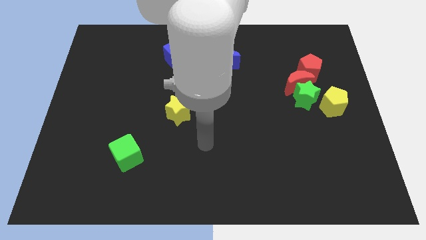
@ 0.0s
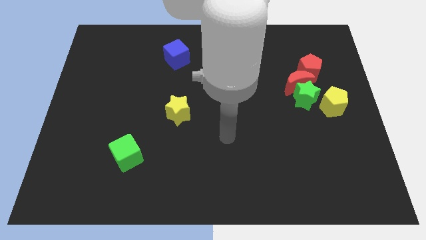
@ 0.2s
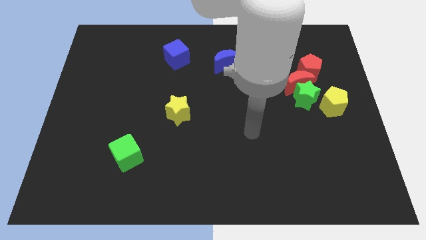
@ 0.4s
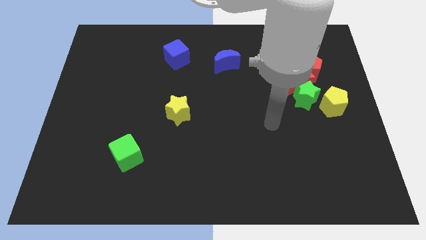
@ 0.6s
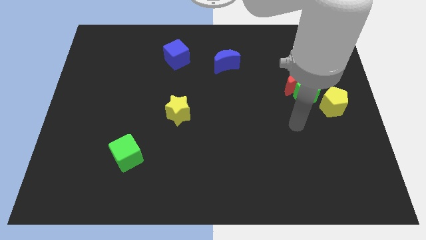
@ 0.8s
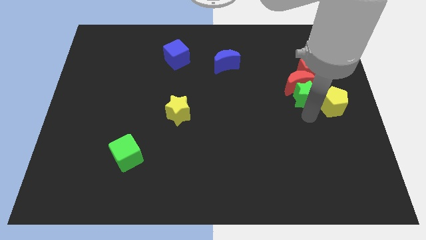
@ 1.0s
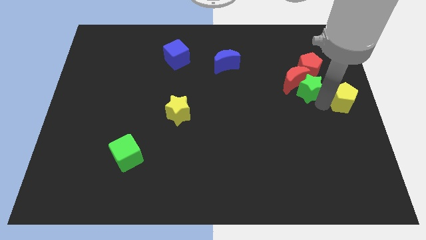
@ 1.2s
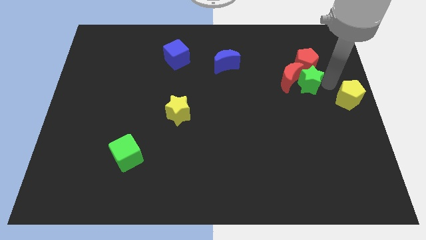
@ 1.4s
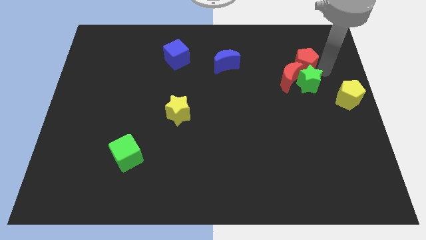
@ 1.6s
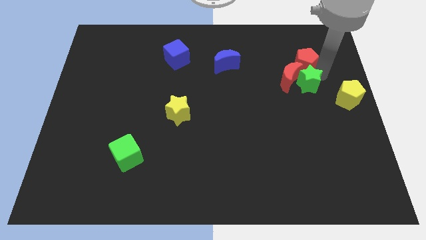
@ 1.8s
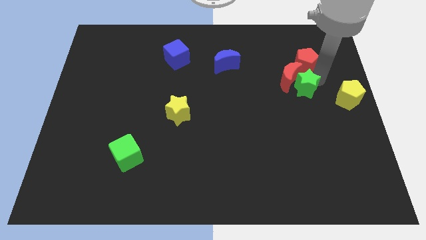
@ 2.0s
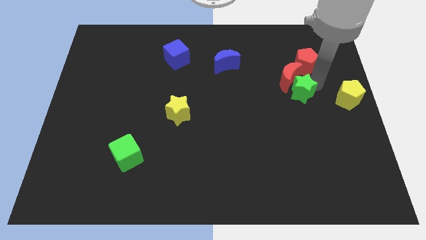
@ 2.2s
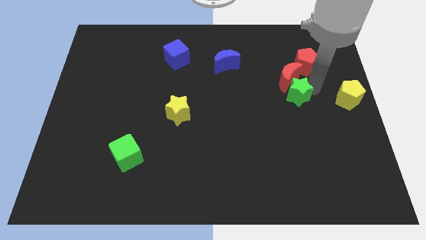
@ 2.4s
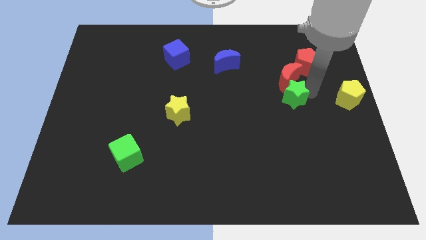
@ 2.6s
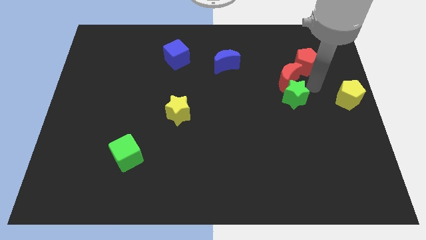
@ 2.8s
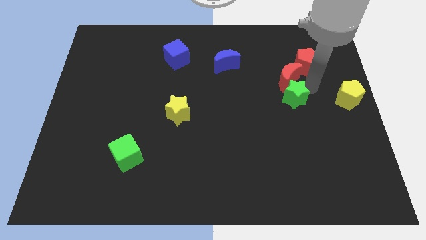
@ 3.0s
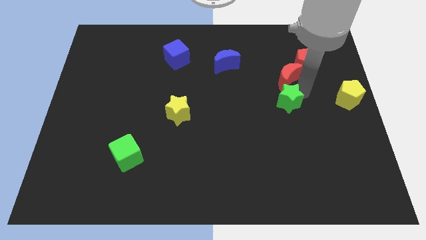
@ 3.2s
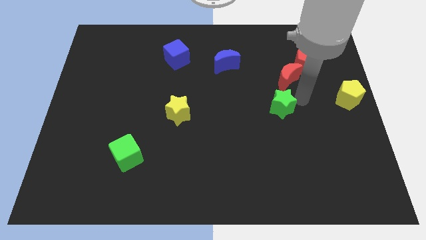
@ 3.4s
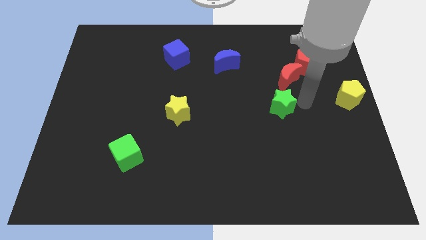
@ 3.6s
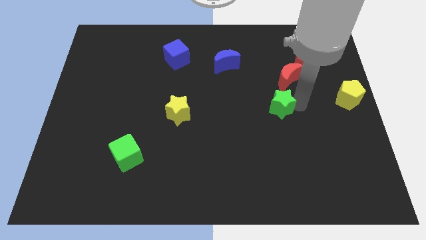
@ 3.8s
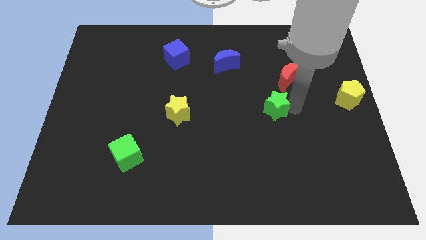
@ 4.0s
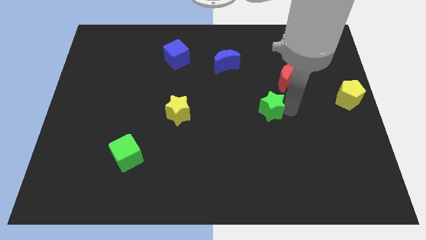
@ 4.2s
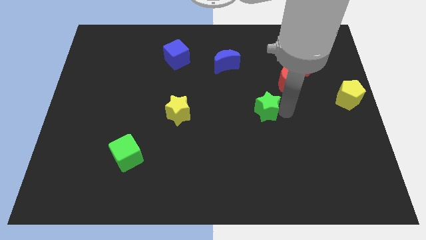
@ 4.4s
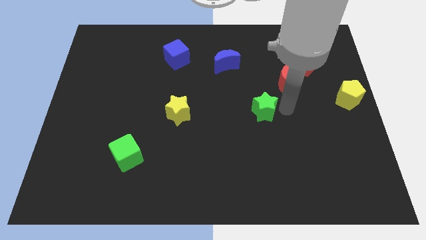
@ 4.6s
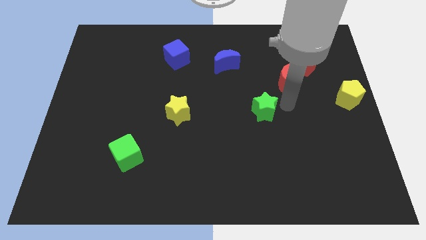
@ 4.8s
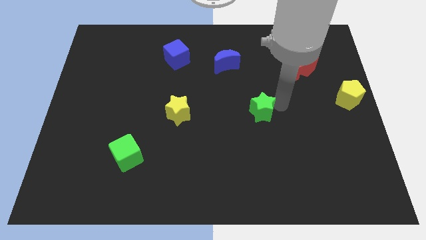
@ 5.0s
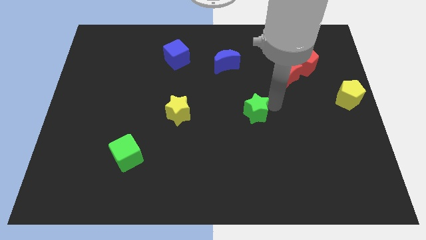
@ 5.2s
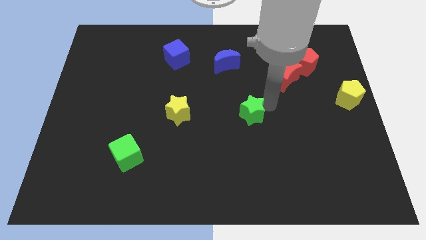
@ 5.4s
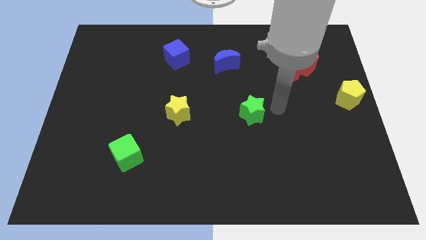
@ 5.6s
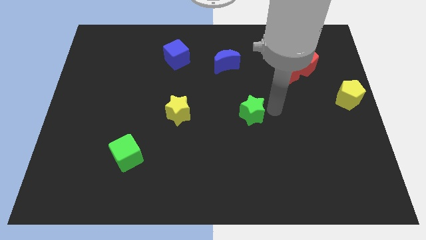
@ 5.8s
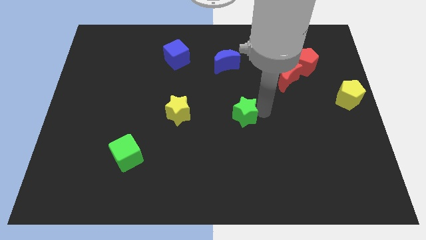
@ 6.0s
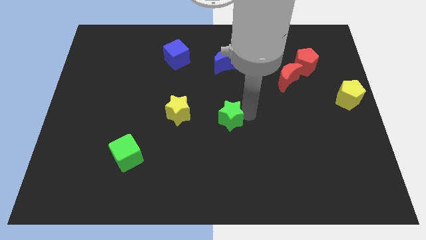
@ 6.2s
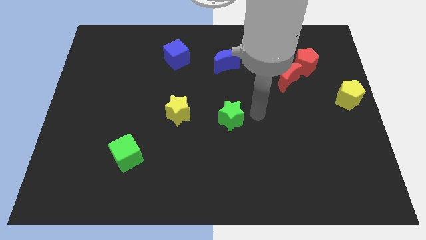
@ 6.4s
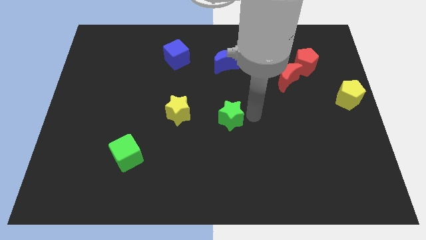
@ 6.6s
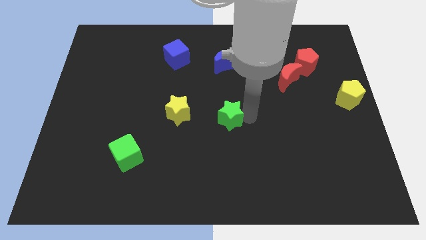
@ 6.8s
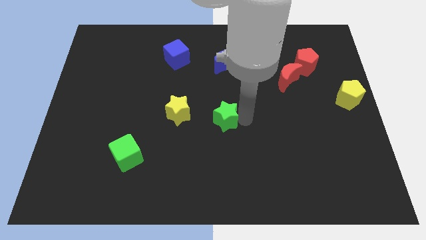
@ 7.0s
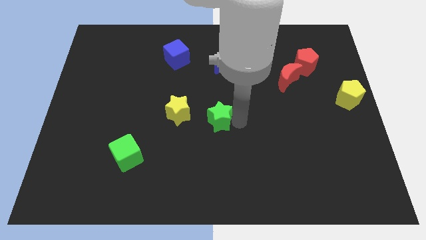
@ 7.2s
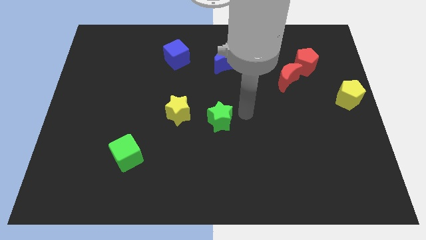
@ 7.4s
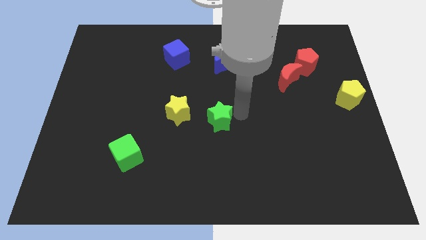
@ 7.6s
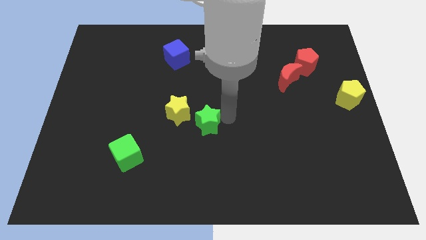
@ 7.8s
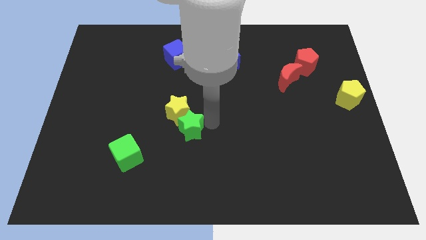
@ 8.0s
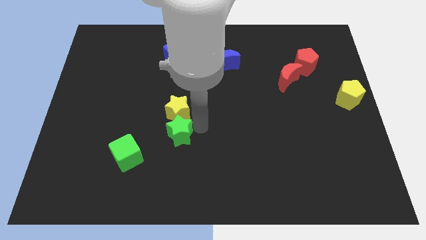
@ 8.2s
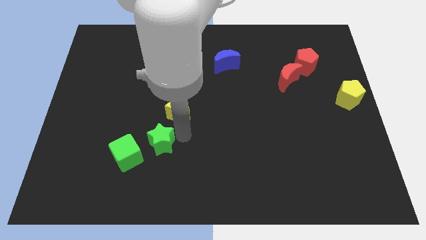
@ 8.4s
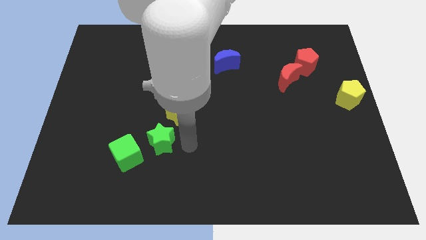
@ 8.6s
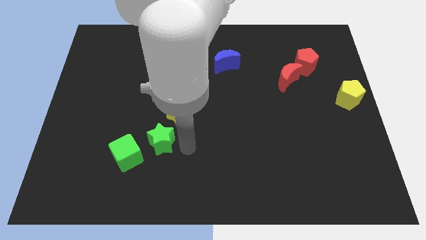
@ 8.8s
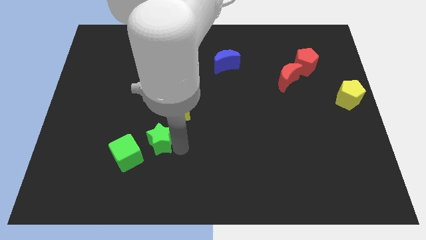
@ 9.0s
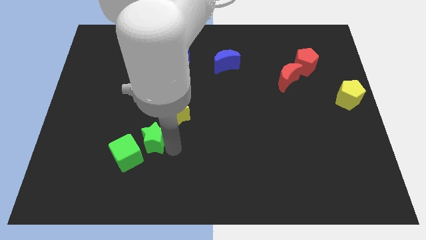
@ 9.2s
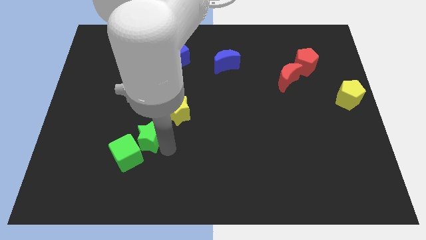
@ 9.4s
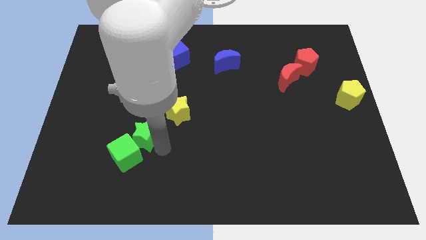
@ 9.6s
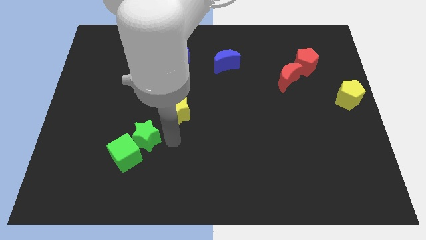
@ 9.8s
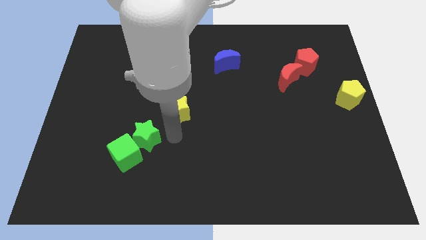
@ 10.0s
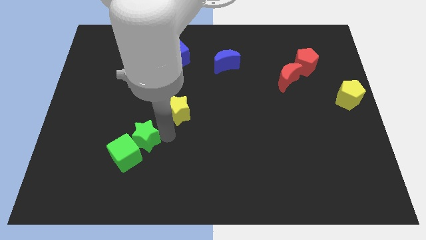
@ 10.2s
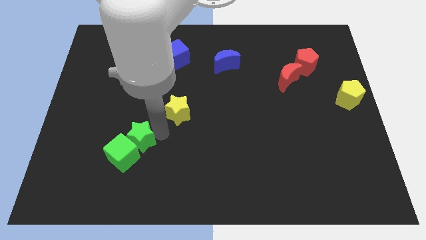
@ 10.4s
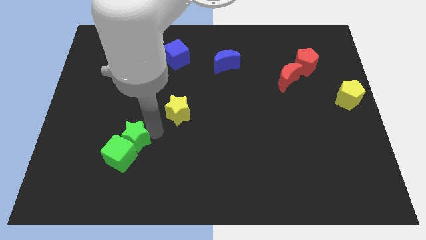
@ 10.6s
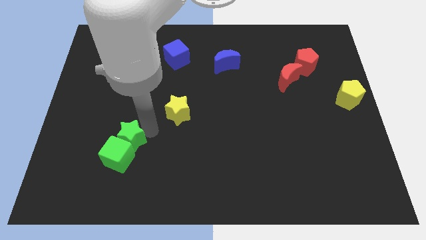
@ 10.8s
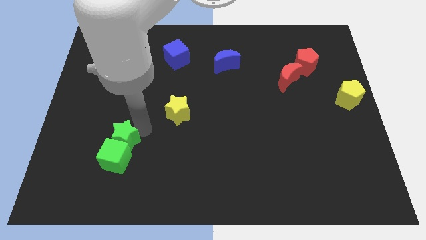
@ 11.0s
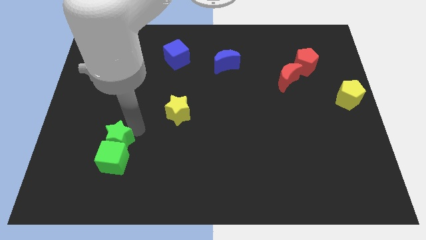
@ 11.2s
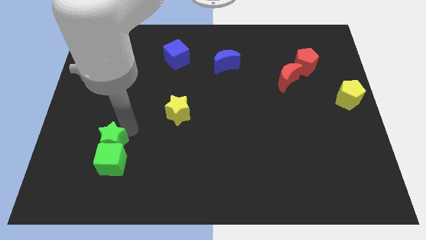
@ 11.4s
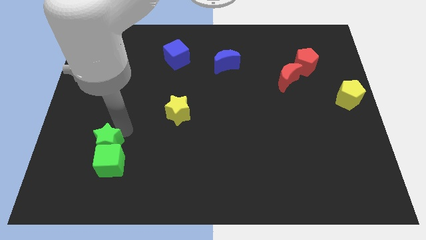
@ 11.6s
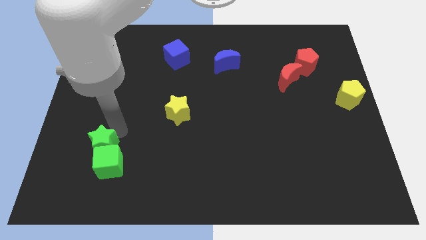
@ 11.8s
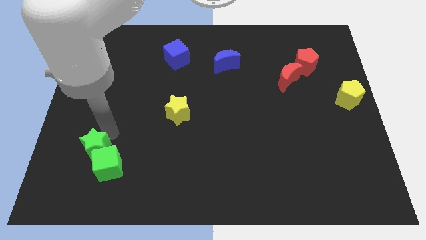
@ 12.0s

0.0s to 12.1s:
push the green star just left of the green cube

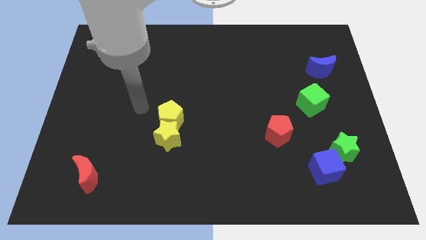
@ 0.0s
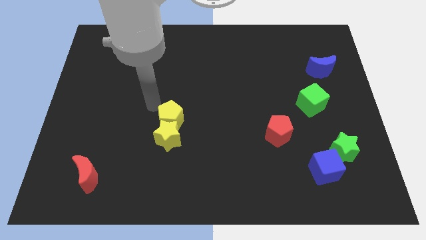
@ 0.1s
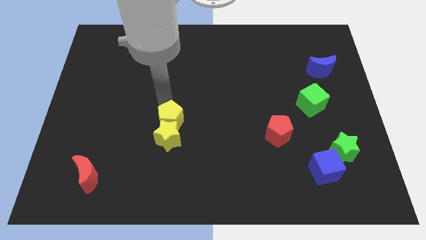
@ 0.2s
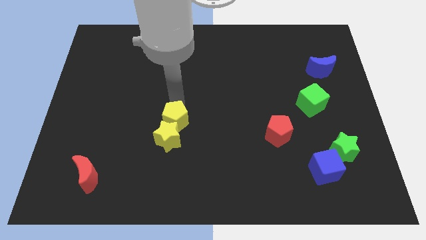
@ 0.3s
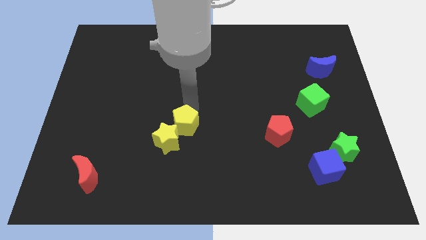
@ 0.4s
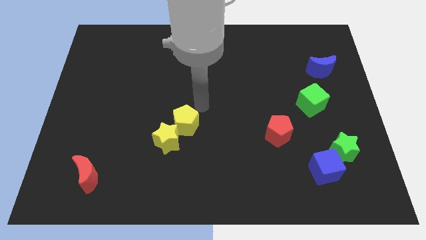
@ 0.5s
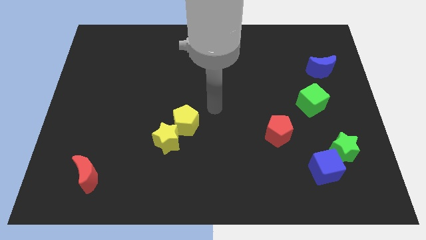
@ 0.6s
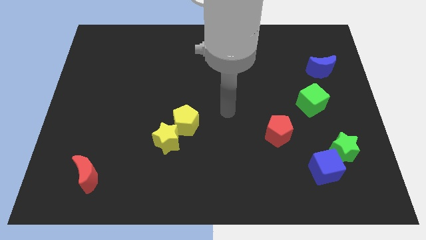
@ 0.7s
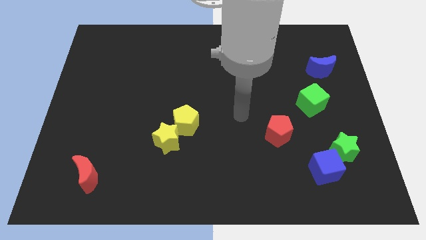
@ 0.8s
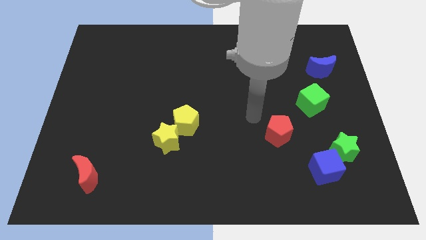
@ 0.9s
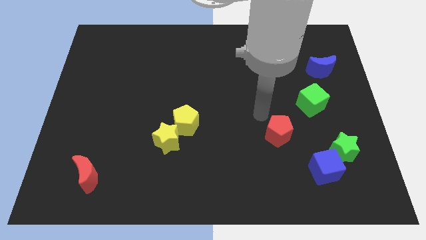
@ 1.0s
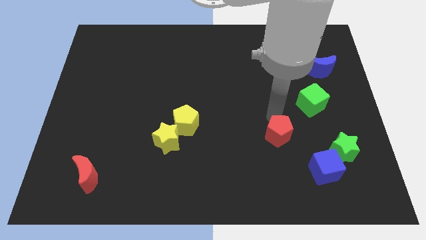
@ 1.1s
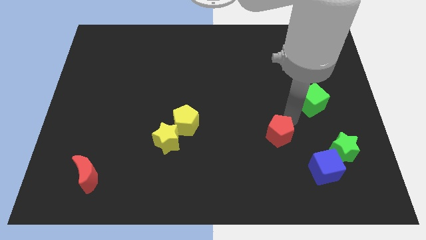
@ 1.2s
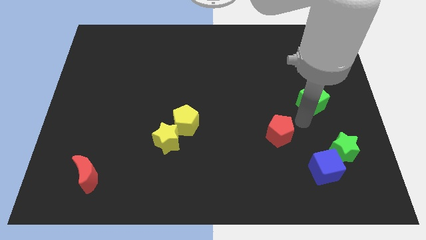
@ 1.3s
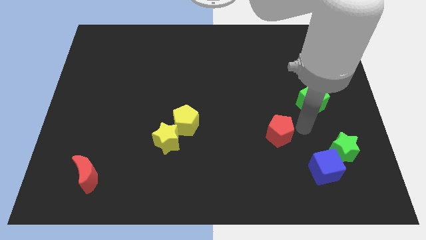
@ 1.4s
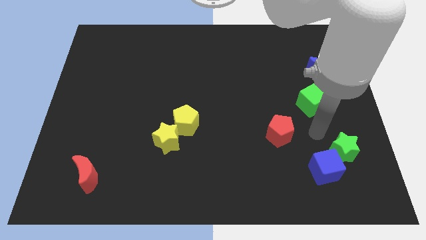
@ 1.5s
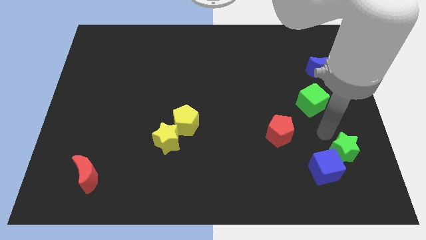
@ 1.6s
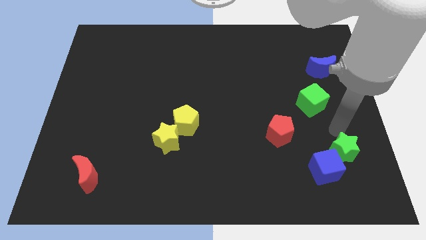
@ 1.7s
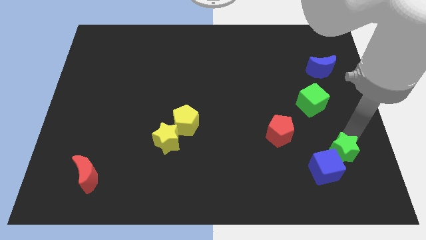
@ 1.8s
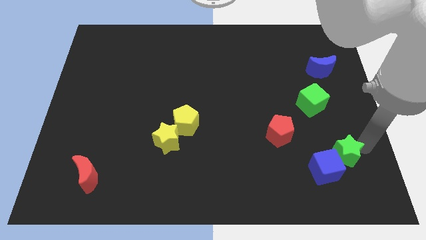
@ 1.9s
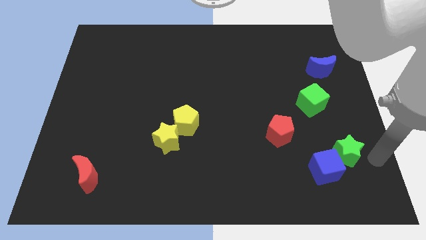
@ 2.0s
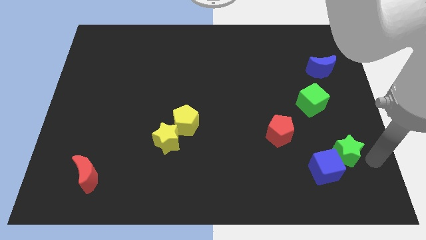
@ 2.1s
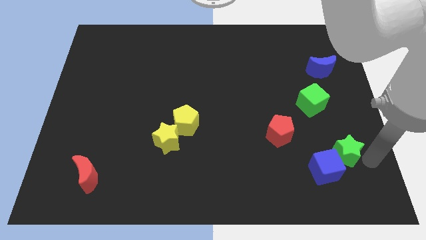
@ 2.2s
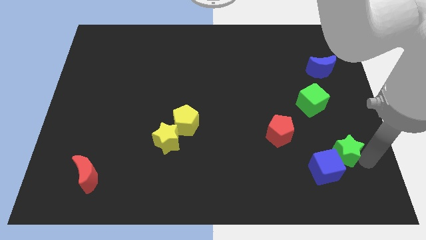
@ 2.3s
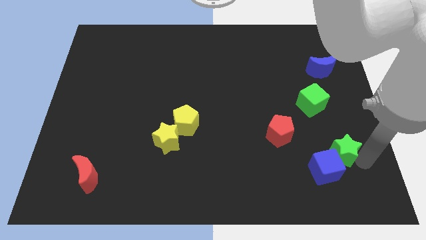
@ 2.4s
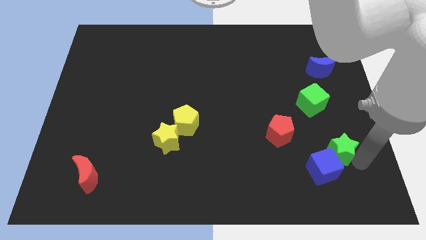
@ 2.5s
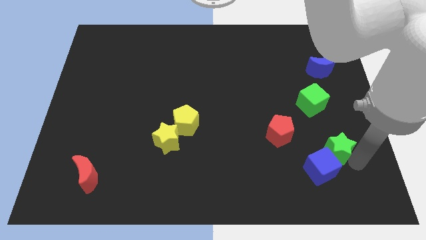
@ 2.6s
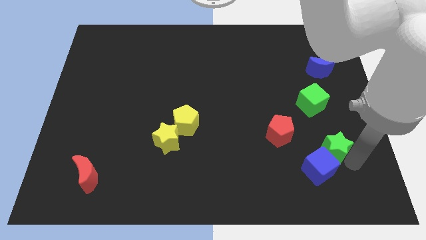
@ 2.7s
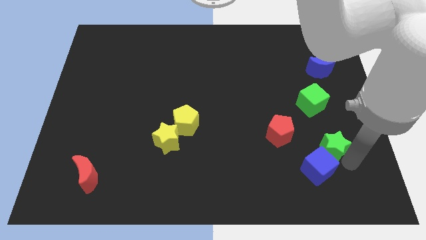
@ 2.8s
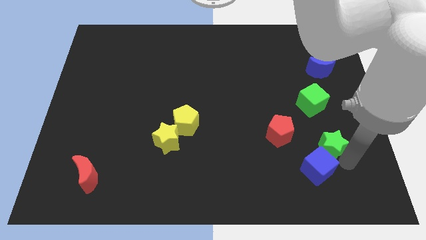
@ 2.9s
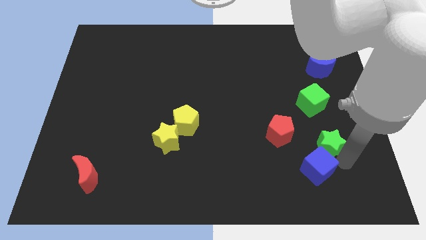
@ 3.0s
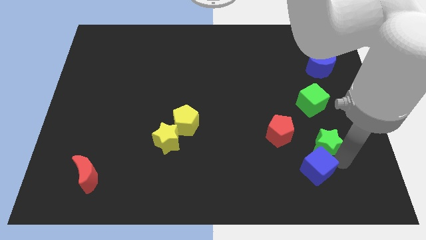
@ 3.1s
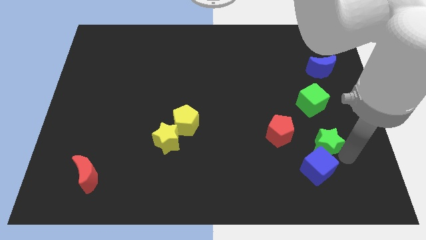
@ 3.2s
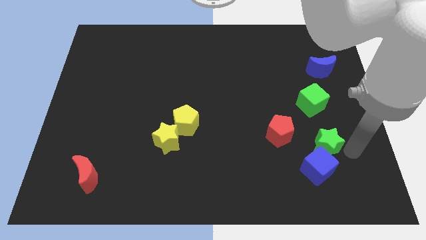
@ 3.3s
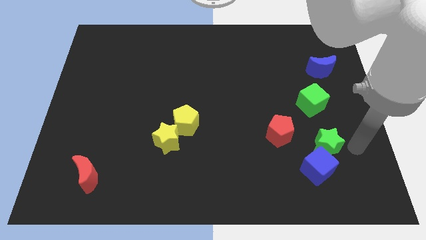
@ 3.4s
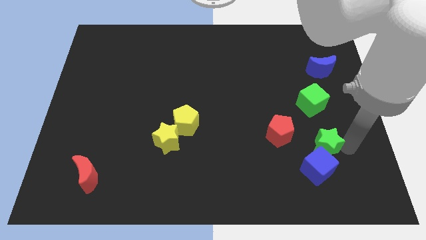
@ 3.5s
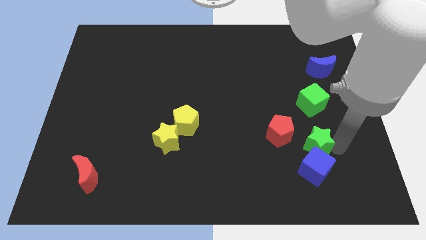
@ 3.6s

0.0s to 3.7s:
push the green star diagonally up and to the left of the blue cube
